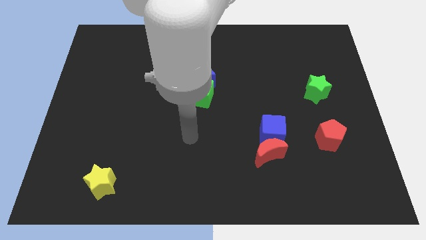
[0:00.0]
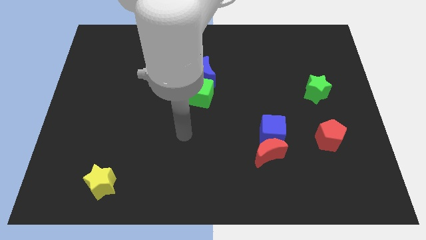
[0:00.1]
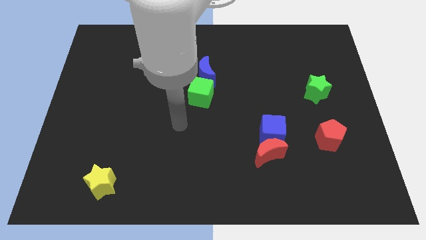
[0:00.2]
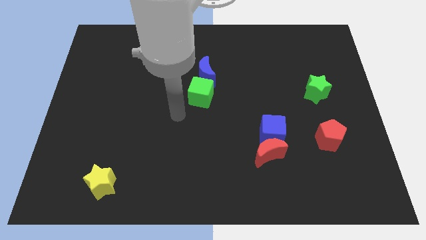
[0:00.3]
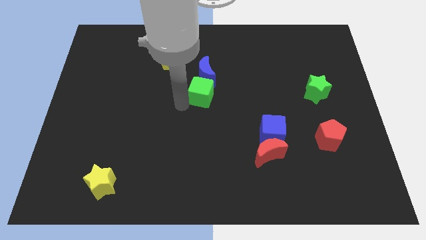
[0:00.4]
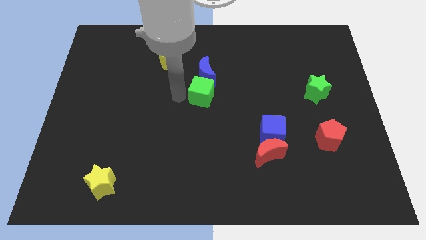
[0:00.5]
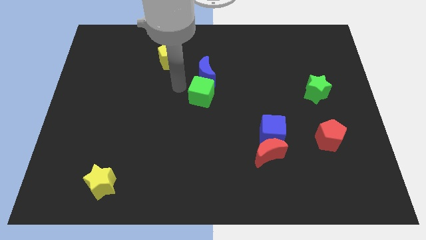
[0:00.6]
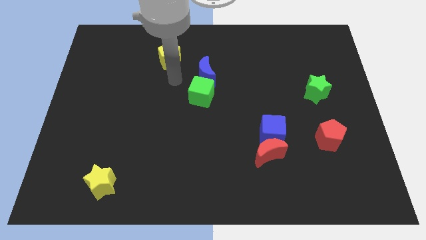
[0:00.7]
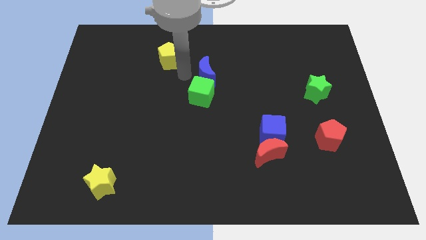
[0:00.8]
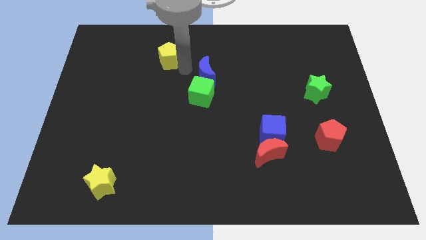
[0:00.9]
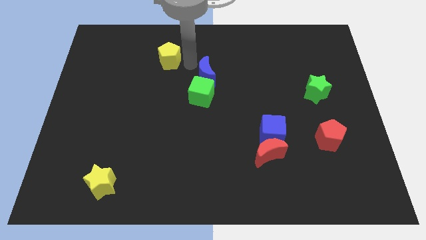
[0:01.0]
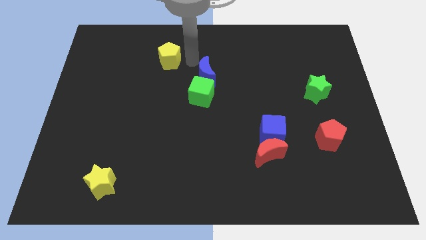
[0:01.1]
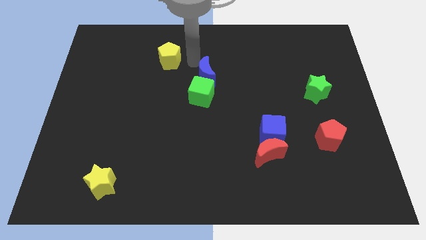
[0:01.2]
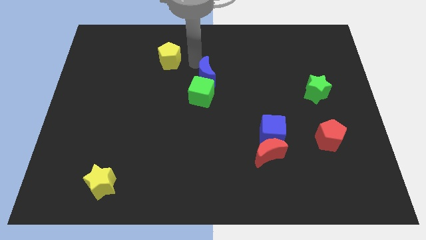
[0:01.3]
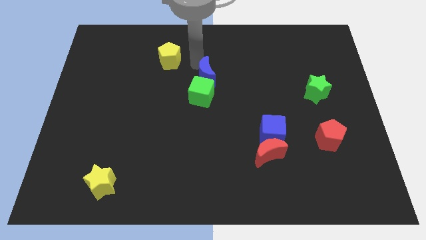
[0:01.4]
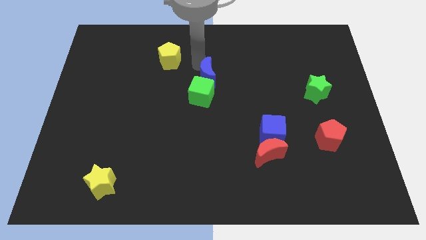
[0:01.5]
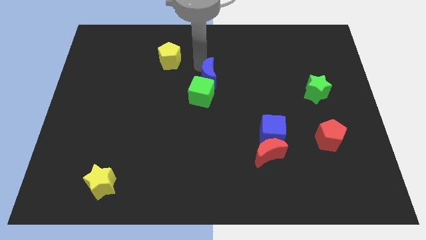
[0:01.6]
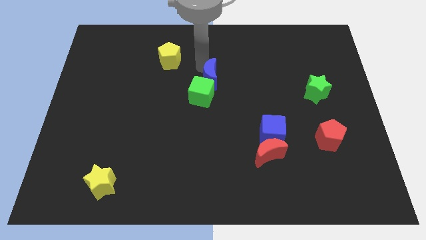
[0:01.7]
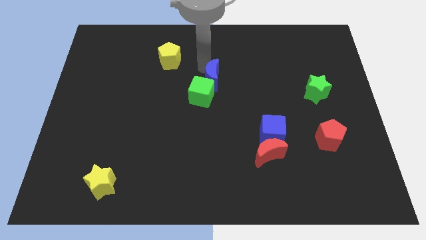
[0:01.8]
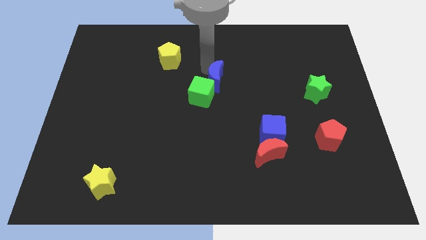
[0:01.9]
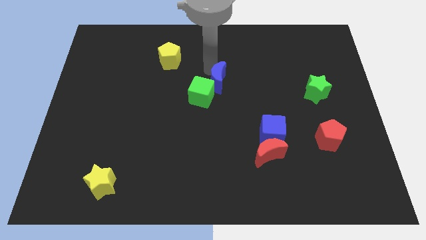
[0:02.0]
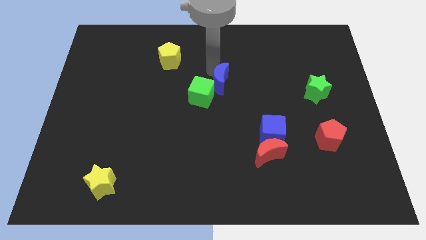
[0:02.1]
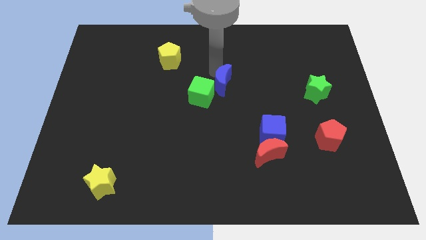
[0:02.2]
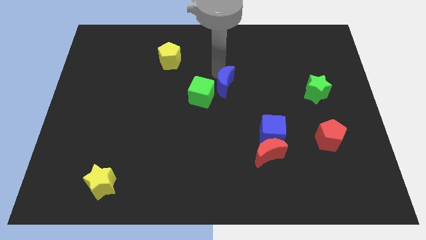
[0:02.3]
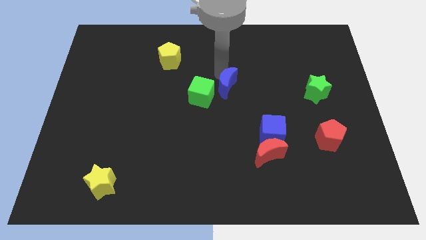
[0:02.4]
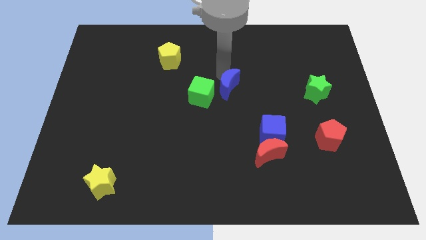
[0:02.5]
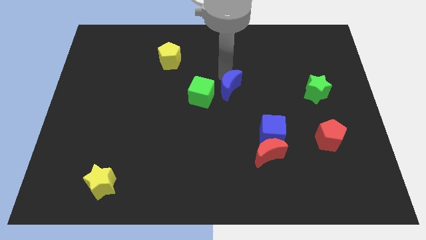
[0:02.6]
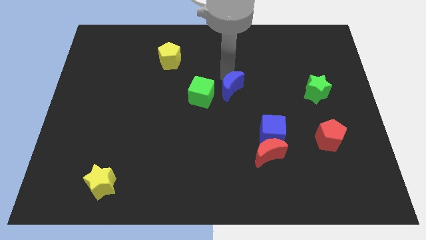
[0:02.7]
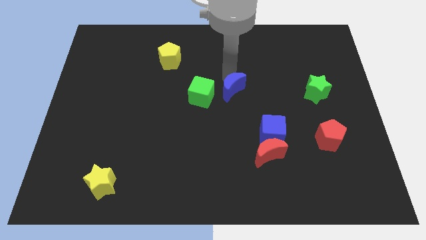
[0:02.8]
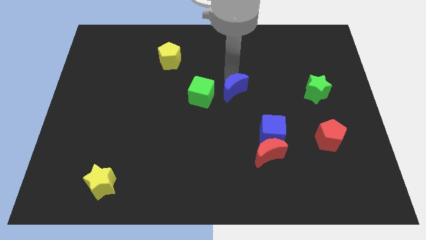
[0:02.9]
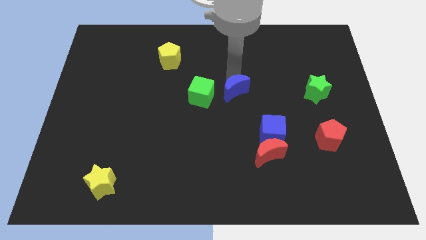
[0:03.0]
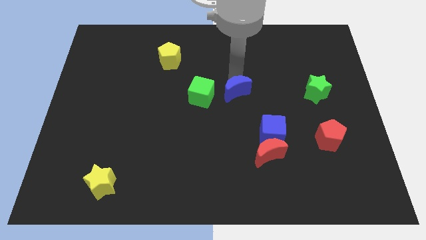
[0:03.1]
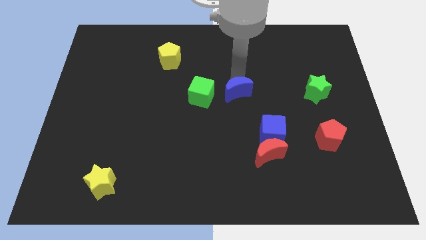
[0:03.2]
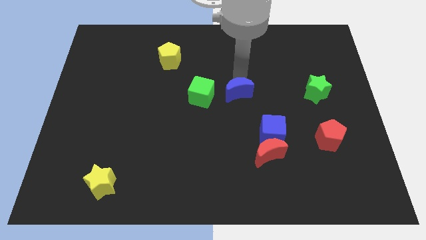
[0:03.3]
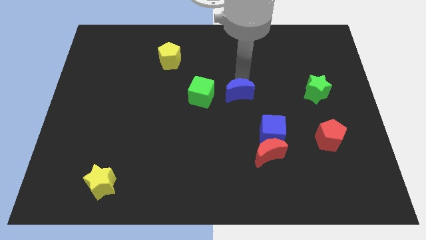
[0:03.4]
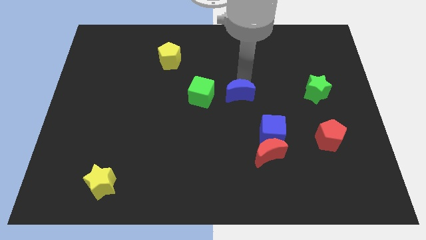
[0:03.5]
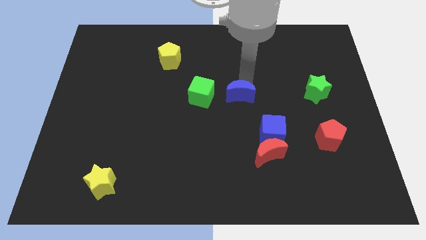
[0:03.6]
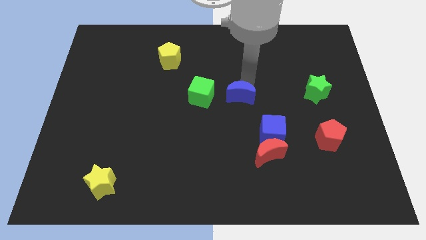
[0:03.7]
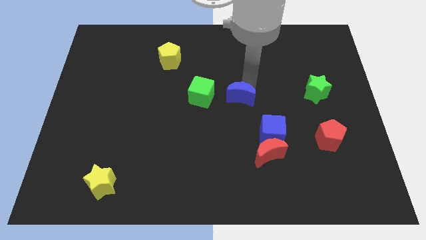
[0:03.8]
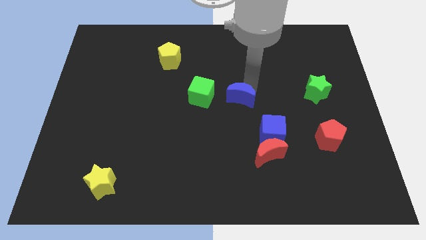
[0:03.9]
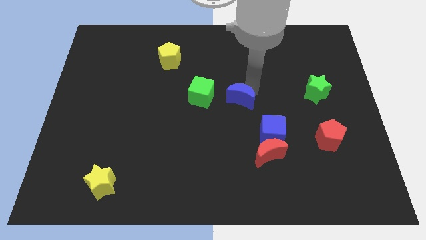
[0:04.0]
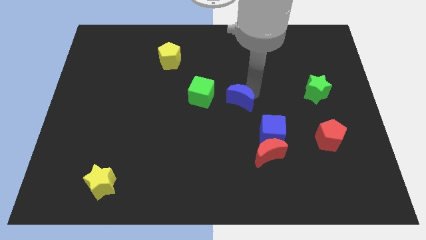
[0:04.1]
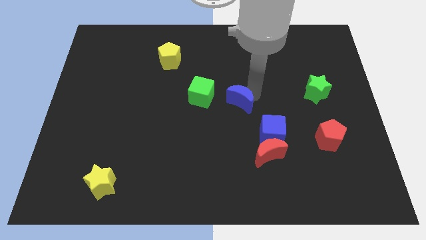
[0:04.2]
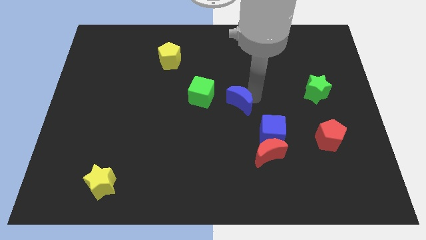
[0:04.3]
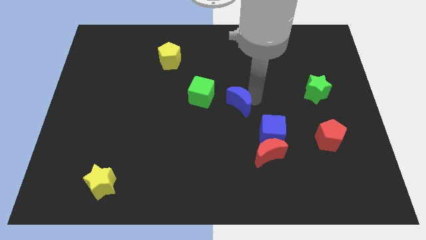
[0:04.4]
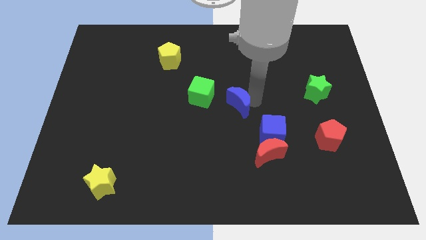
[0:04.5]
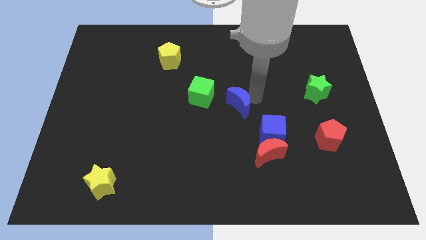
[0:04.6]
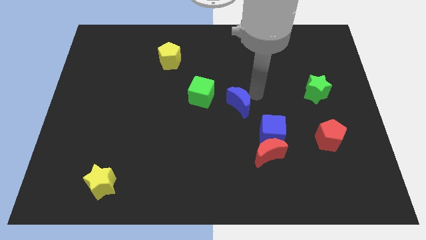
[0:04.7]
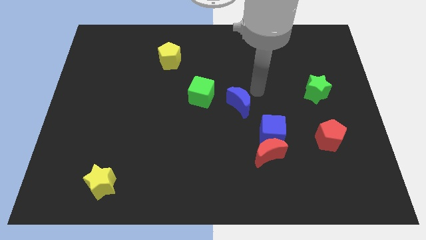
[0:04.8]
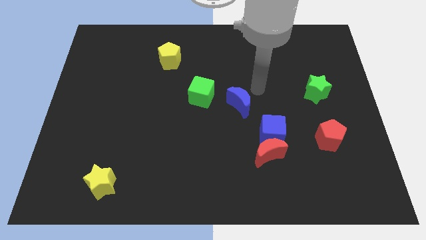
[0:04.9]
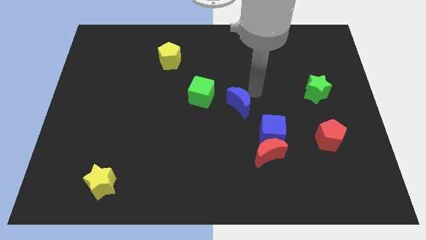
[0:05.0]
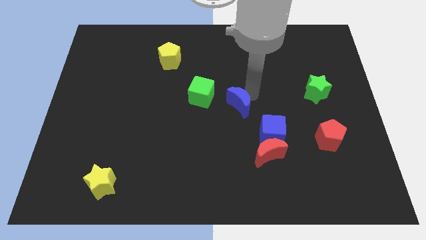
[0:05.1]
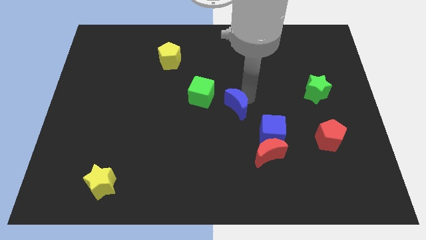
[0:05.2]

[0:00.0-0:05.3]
slightly slide the blue moon downwards

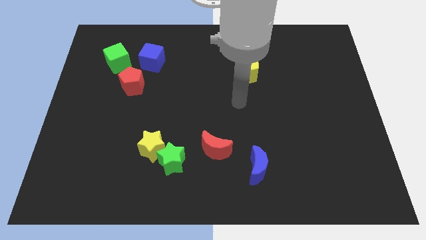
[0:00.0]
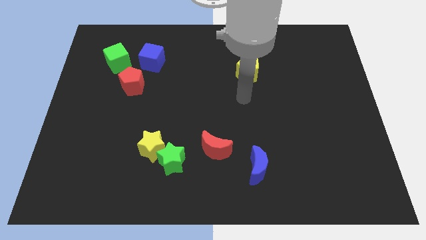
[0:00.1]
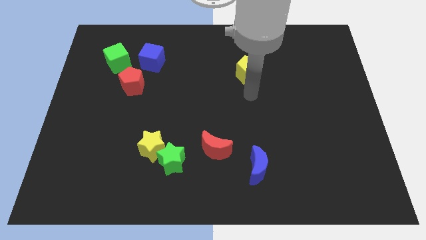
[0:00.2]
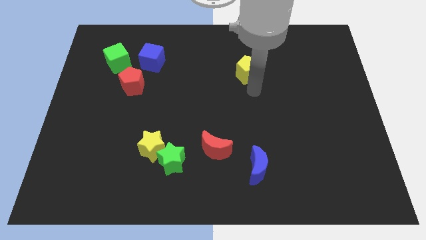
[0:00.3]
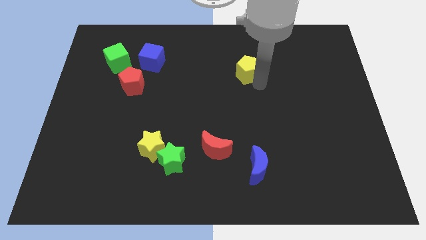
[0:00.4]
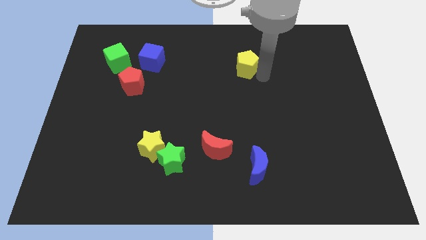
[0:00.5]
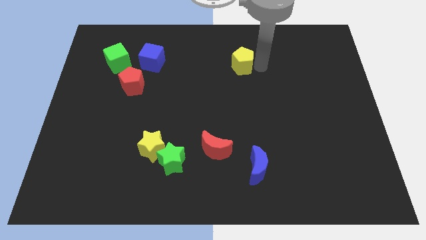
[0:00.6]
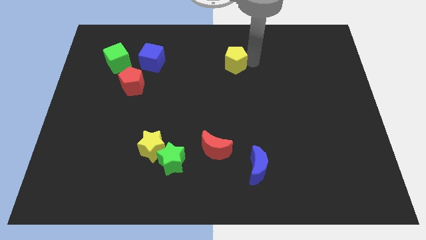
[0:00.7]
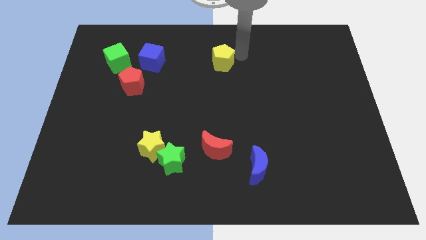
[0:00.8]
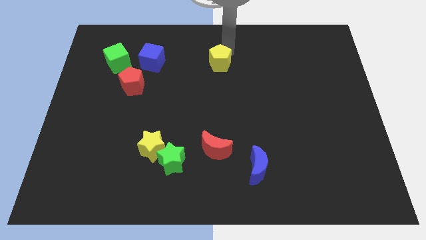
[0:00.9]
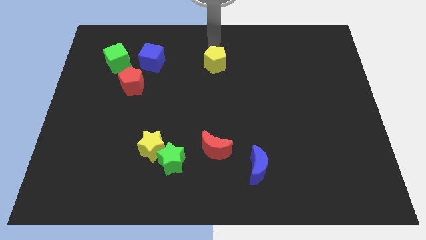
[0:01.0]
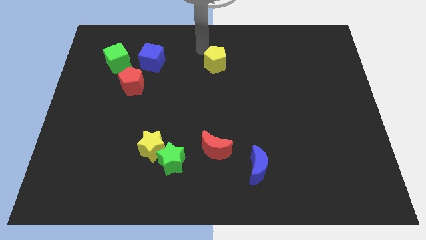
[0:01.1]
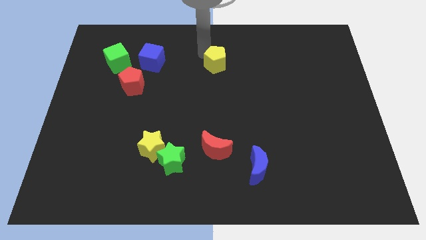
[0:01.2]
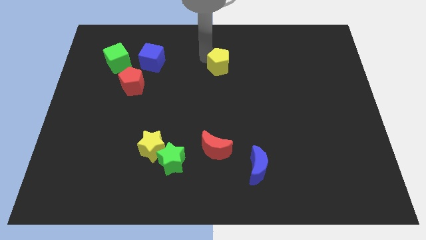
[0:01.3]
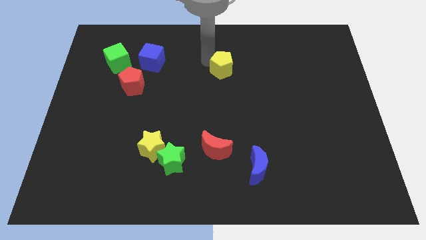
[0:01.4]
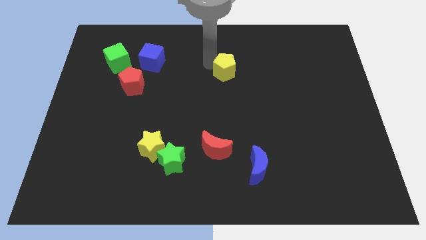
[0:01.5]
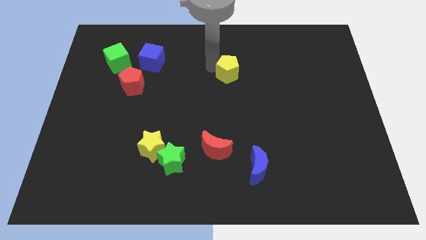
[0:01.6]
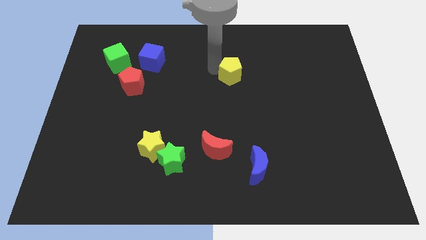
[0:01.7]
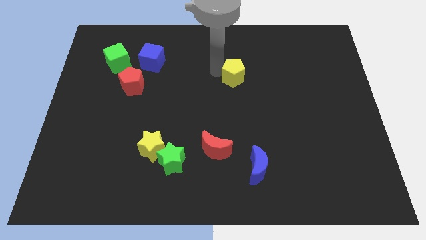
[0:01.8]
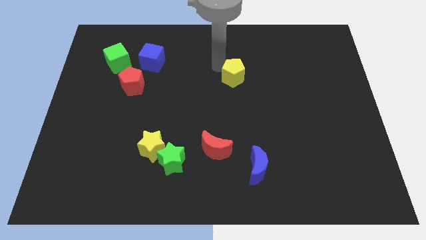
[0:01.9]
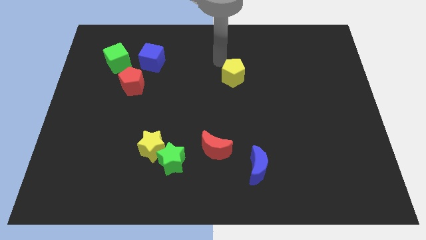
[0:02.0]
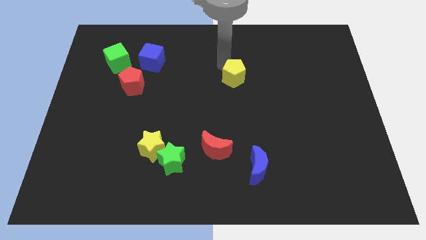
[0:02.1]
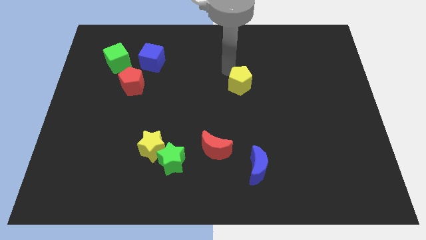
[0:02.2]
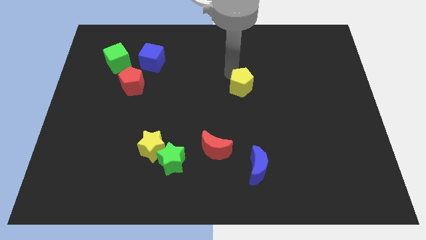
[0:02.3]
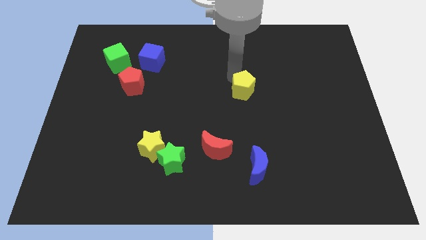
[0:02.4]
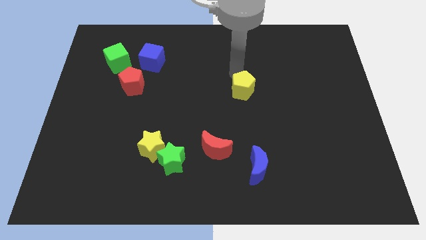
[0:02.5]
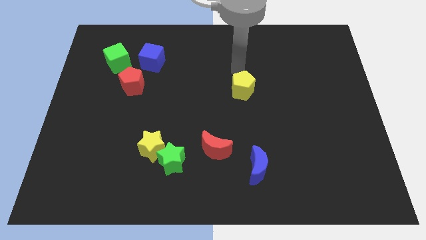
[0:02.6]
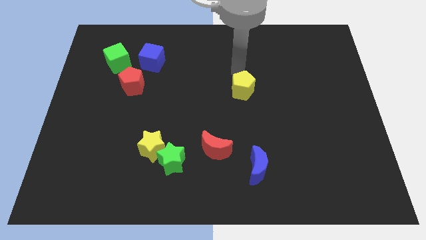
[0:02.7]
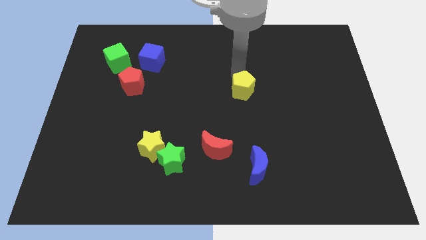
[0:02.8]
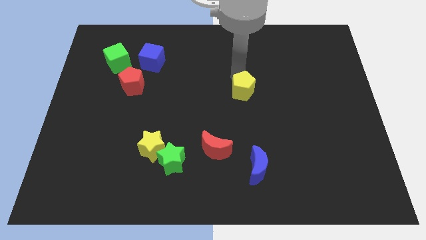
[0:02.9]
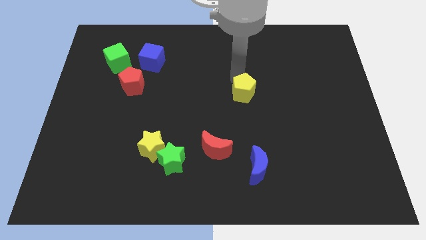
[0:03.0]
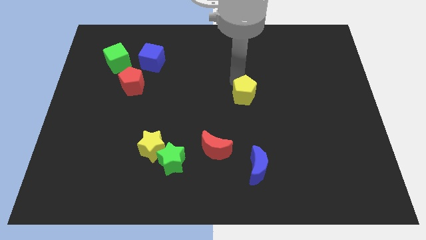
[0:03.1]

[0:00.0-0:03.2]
move the yellow pentagon somewhat down
